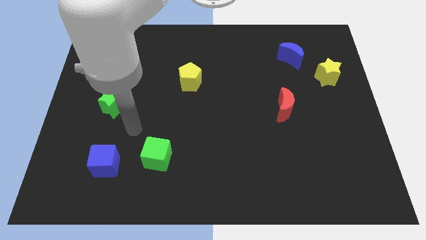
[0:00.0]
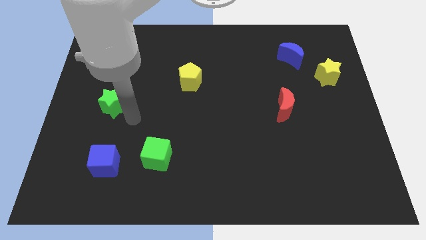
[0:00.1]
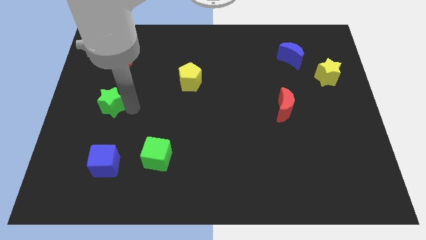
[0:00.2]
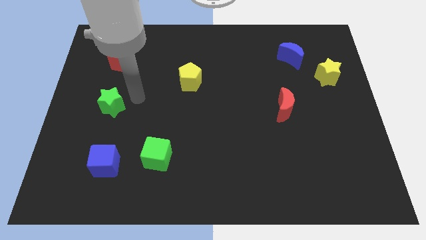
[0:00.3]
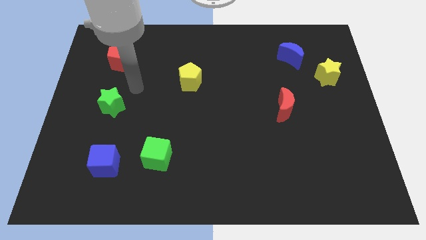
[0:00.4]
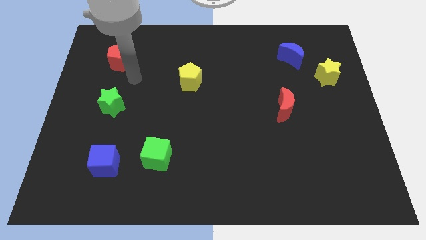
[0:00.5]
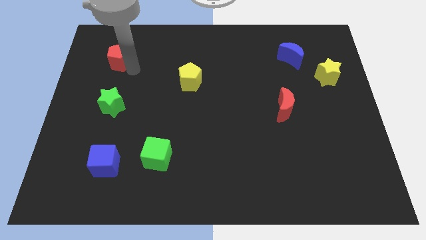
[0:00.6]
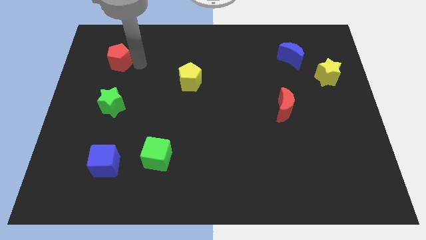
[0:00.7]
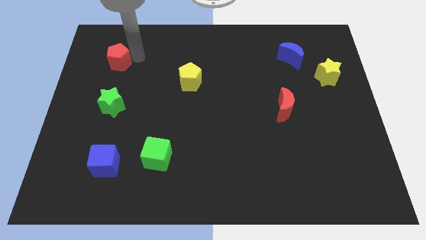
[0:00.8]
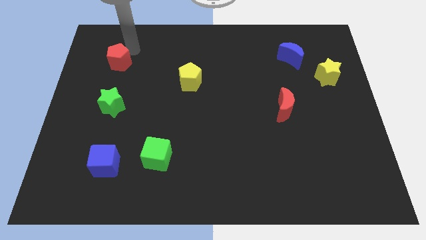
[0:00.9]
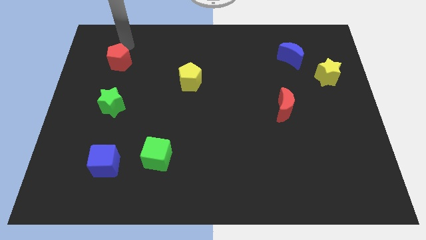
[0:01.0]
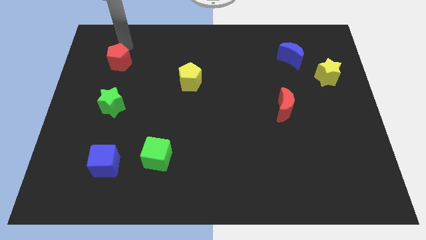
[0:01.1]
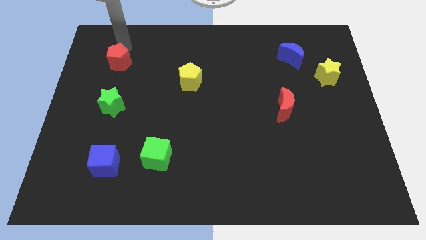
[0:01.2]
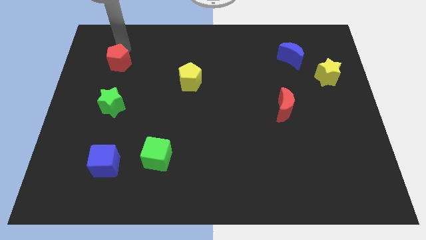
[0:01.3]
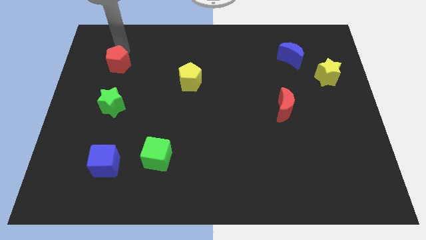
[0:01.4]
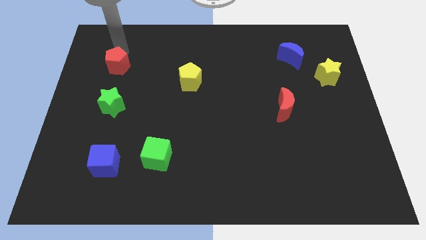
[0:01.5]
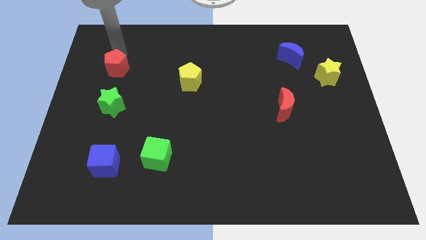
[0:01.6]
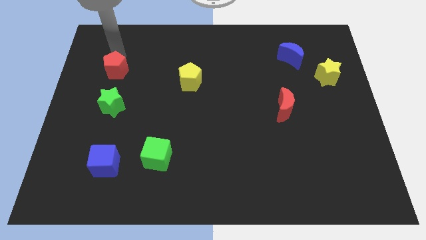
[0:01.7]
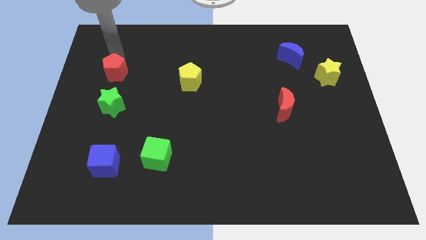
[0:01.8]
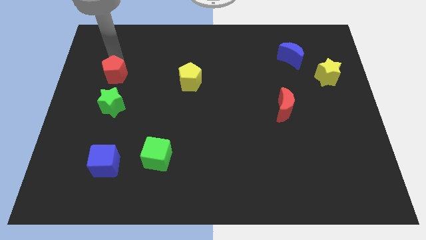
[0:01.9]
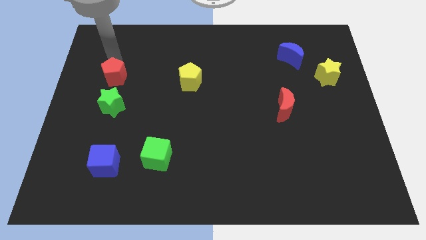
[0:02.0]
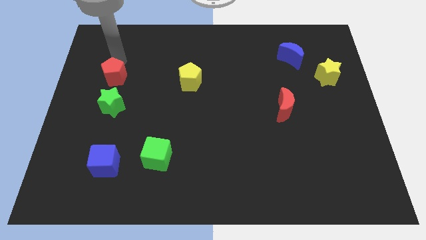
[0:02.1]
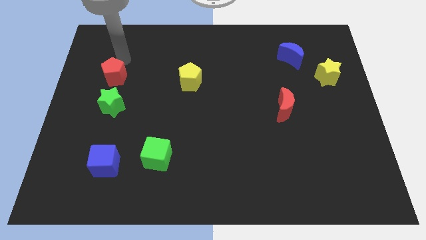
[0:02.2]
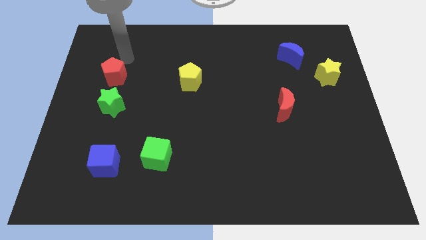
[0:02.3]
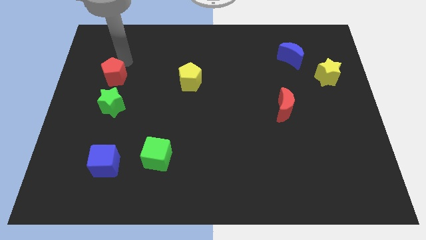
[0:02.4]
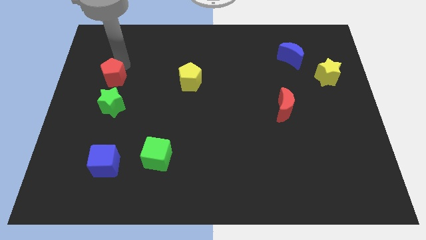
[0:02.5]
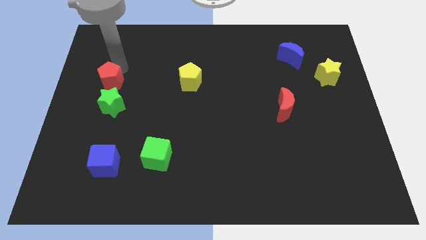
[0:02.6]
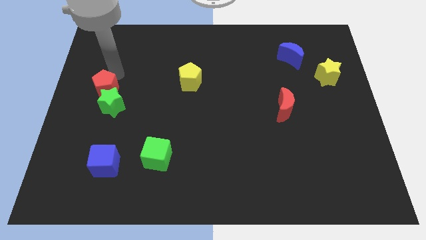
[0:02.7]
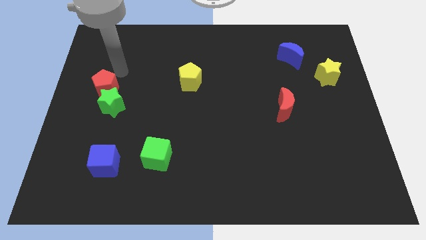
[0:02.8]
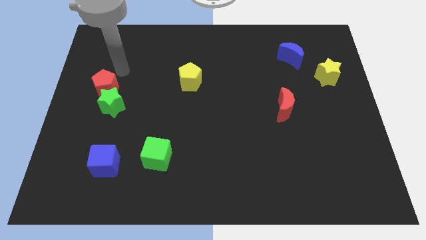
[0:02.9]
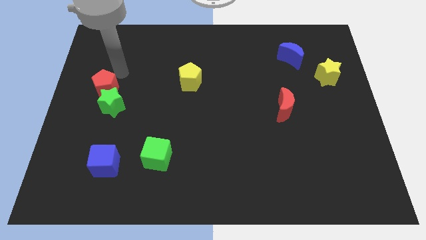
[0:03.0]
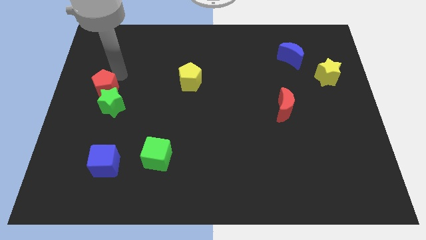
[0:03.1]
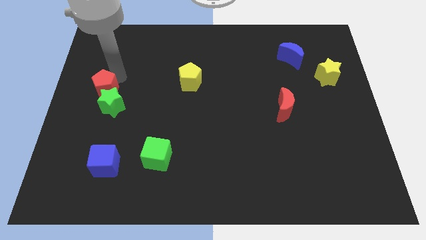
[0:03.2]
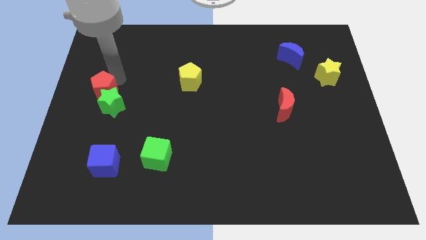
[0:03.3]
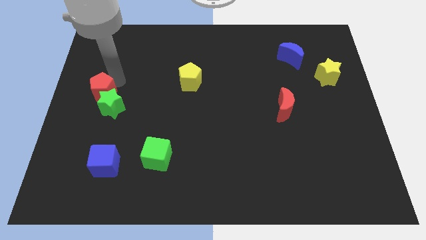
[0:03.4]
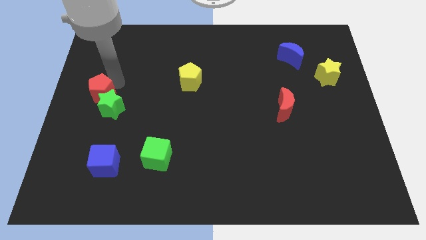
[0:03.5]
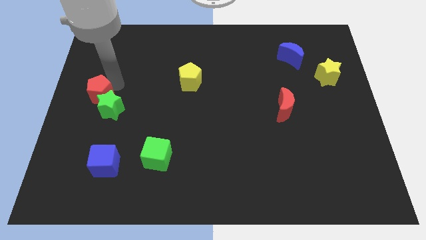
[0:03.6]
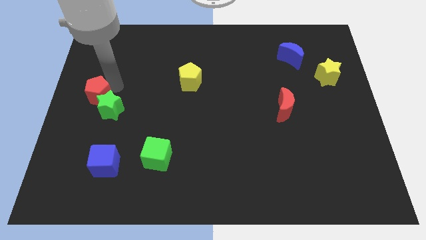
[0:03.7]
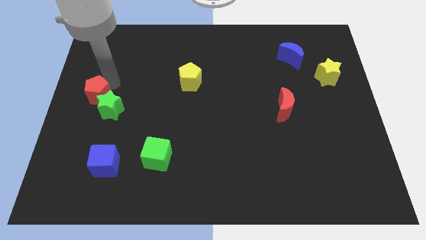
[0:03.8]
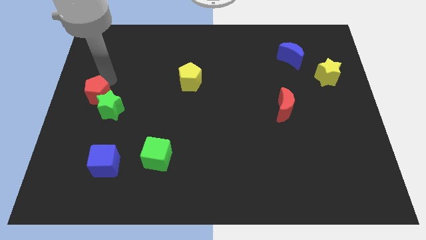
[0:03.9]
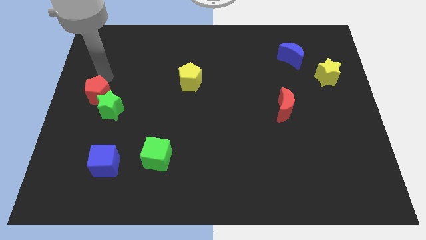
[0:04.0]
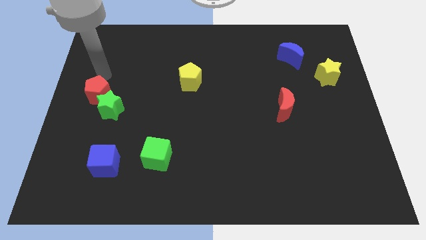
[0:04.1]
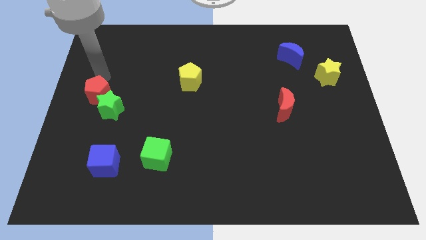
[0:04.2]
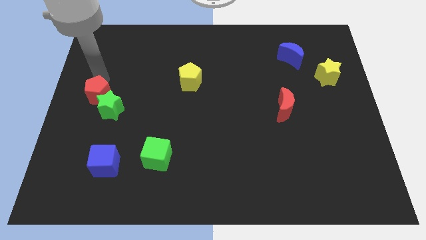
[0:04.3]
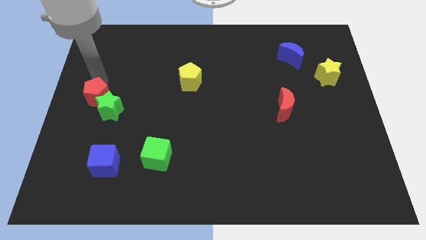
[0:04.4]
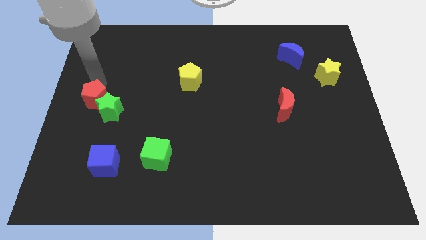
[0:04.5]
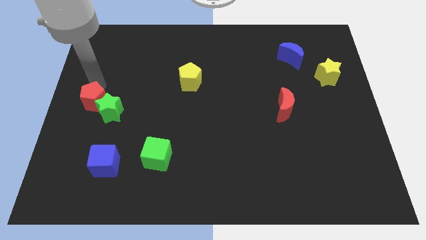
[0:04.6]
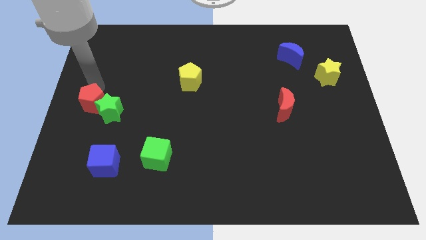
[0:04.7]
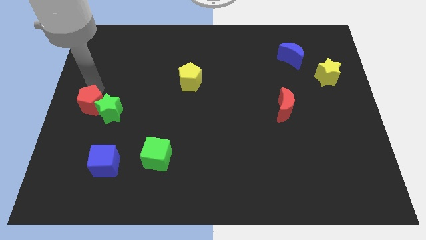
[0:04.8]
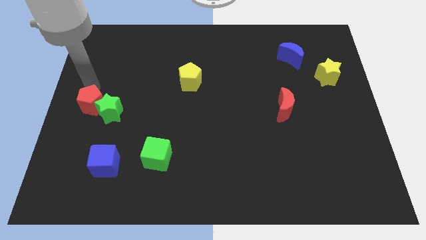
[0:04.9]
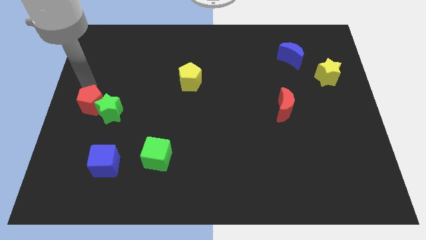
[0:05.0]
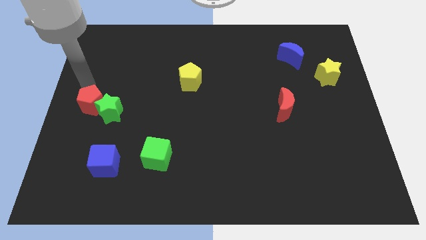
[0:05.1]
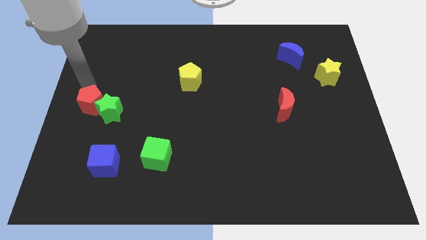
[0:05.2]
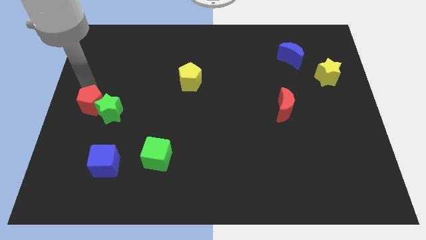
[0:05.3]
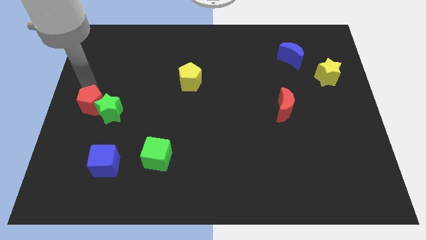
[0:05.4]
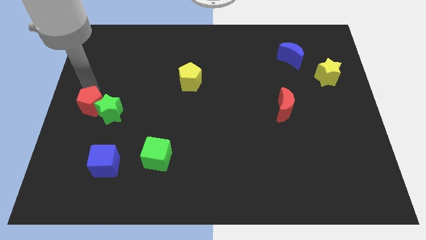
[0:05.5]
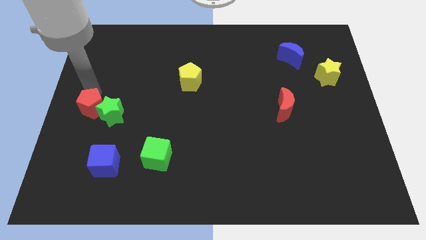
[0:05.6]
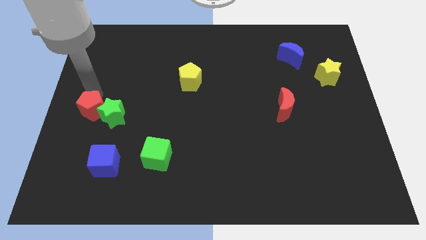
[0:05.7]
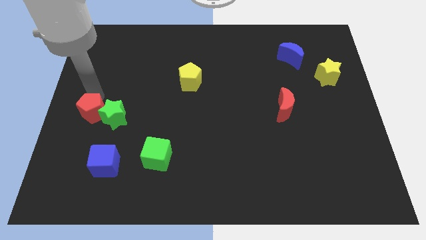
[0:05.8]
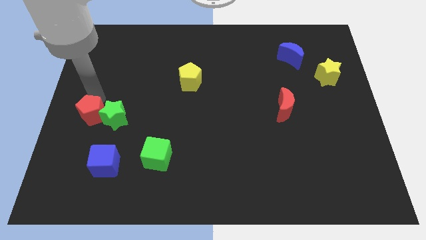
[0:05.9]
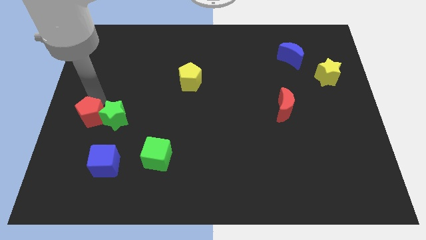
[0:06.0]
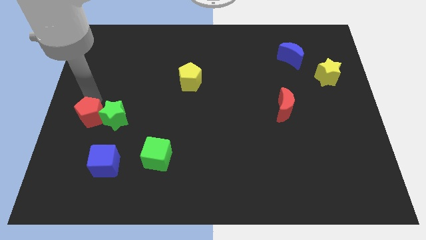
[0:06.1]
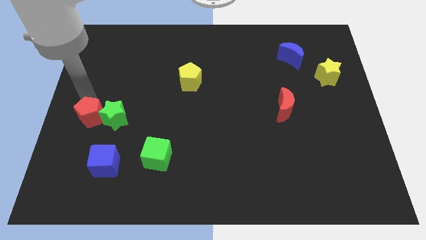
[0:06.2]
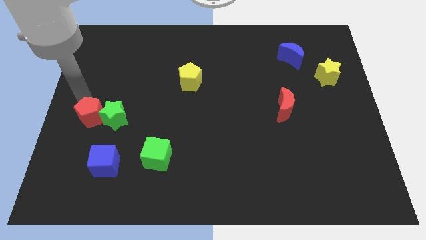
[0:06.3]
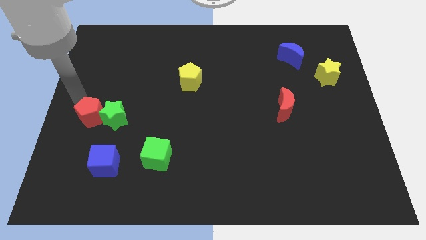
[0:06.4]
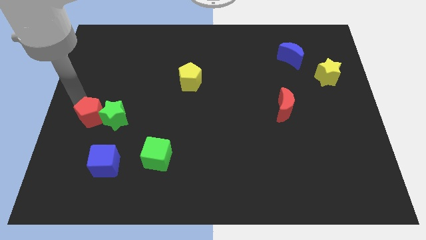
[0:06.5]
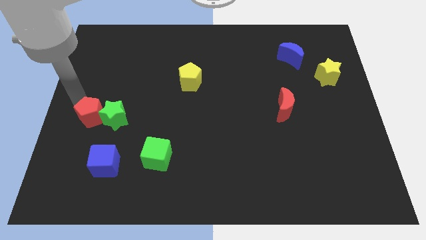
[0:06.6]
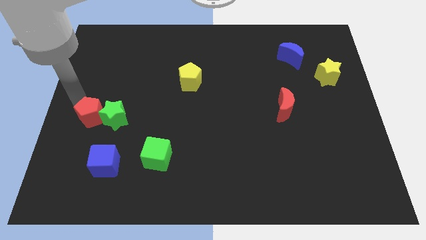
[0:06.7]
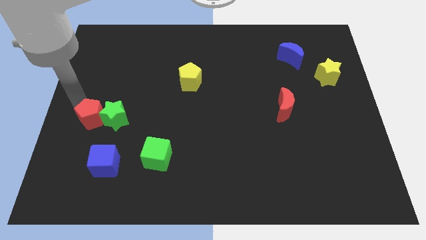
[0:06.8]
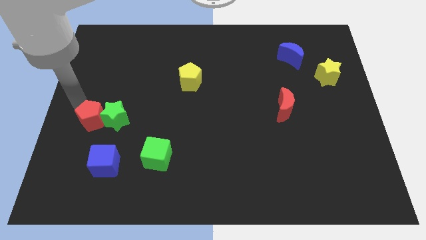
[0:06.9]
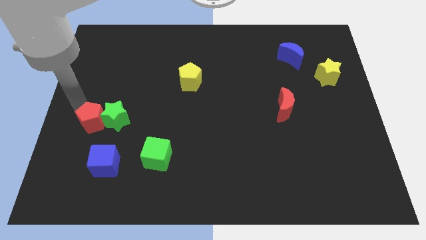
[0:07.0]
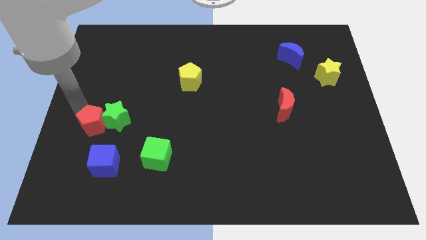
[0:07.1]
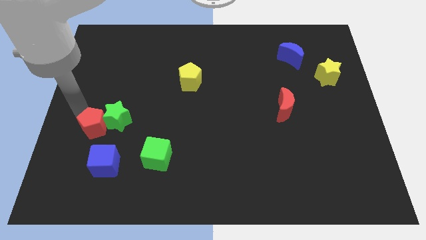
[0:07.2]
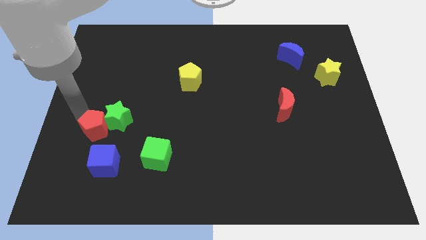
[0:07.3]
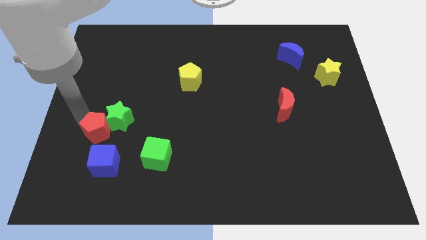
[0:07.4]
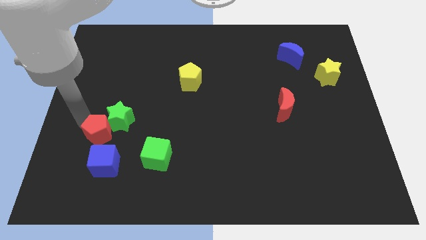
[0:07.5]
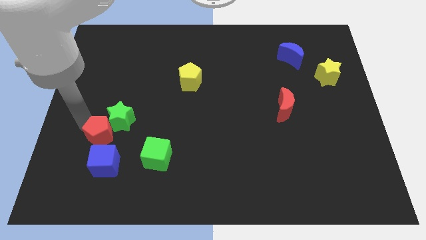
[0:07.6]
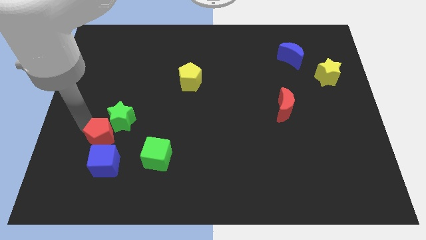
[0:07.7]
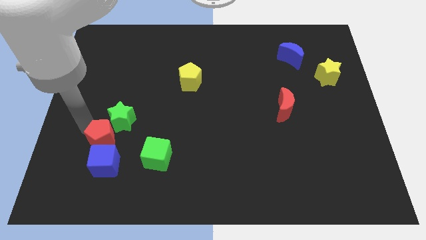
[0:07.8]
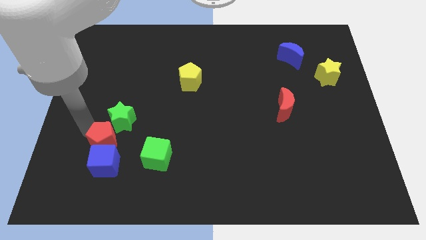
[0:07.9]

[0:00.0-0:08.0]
move the red pentagon to the blue cube
